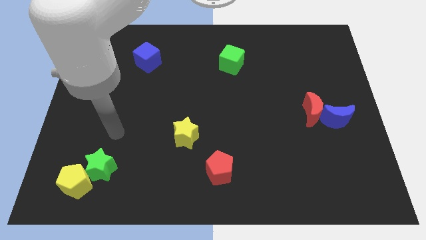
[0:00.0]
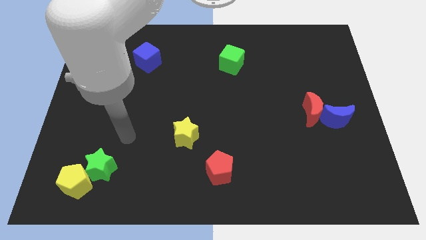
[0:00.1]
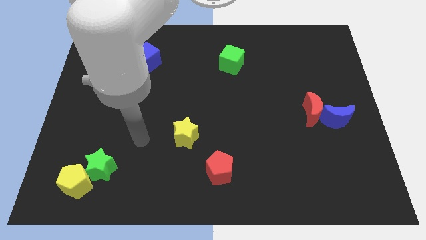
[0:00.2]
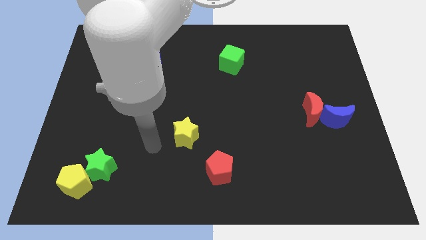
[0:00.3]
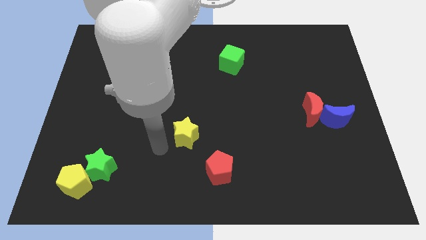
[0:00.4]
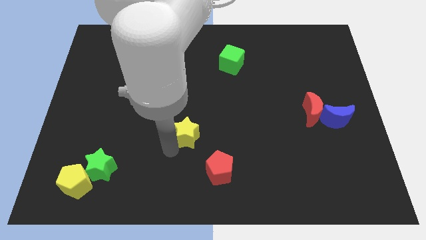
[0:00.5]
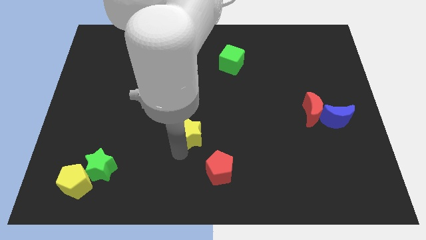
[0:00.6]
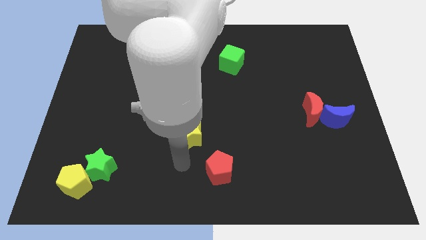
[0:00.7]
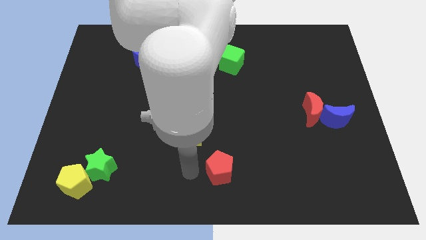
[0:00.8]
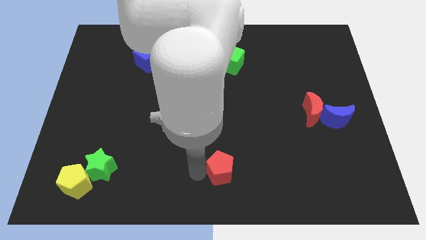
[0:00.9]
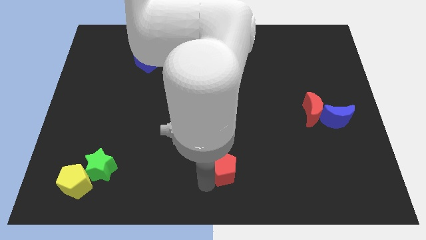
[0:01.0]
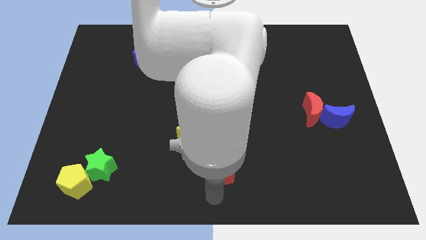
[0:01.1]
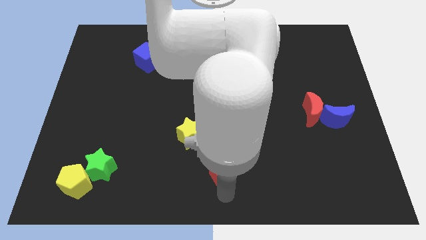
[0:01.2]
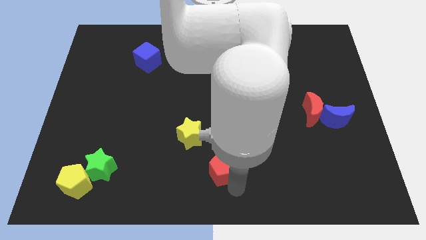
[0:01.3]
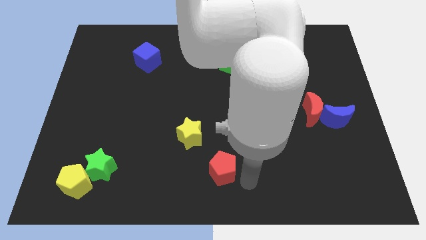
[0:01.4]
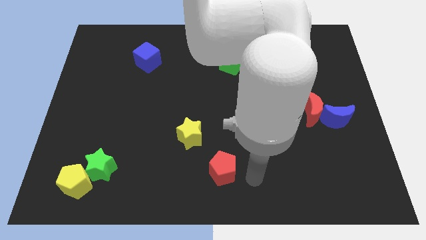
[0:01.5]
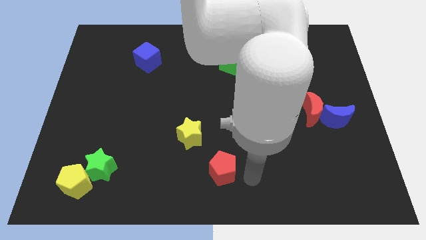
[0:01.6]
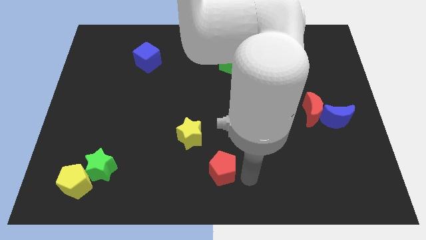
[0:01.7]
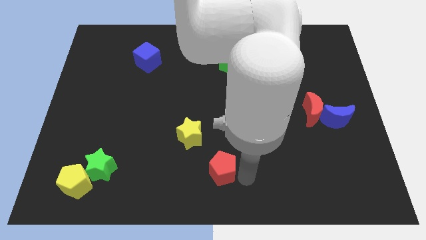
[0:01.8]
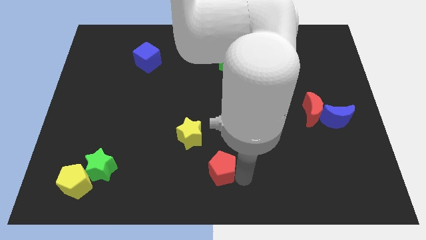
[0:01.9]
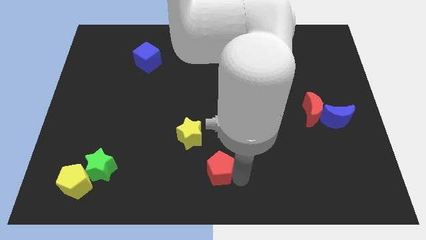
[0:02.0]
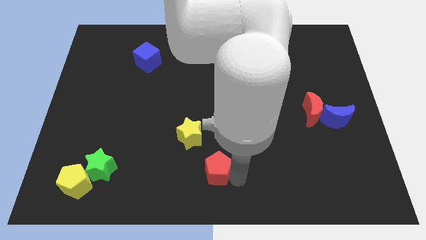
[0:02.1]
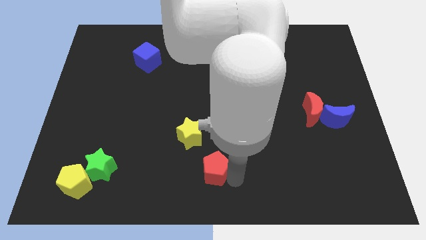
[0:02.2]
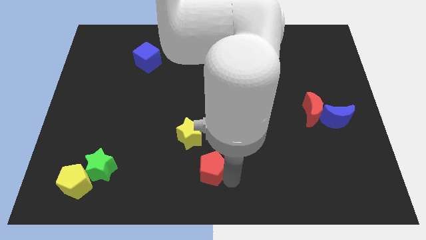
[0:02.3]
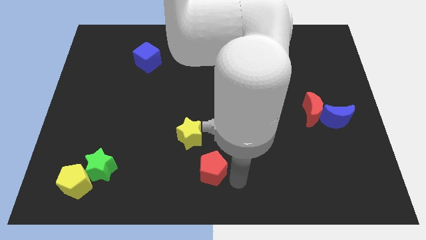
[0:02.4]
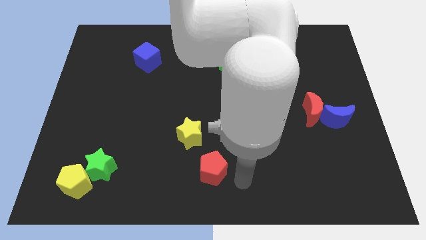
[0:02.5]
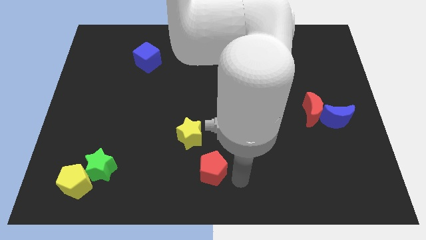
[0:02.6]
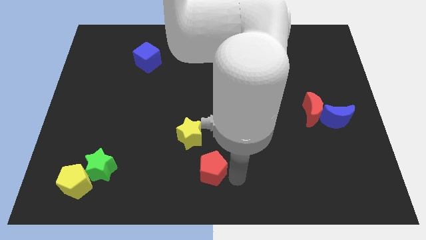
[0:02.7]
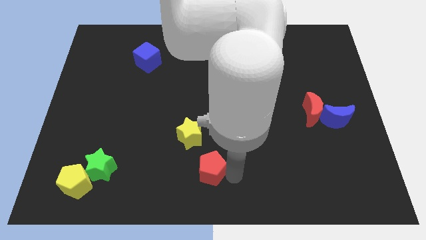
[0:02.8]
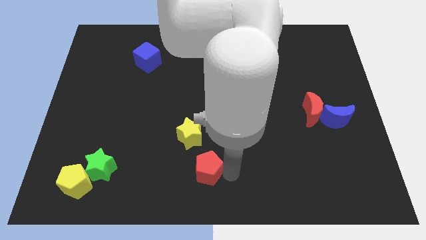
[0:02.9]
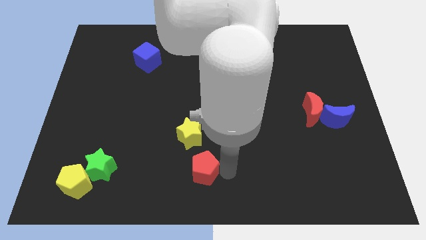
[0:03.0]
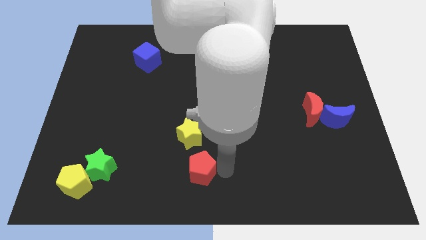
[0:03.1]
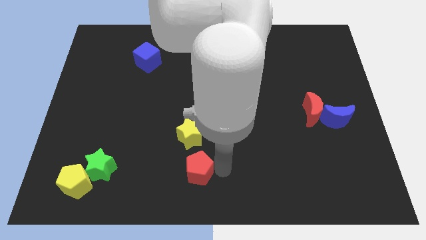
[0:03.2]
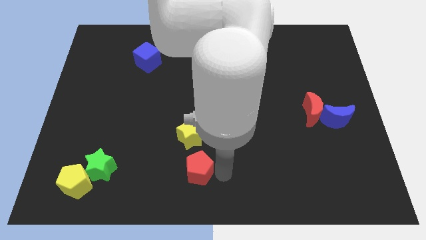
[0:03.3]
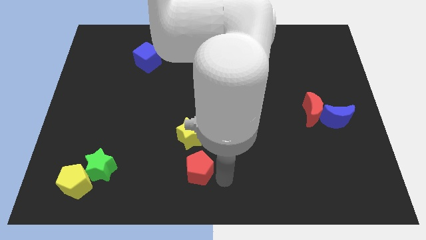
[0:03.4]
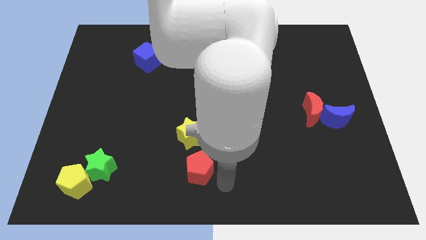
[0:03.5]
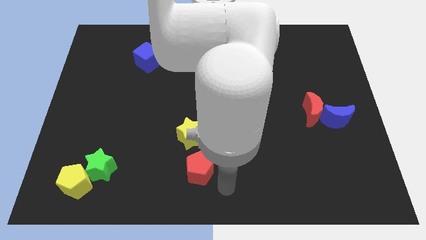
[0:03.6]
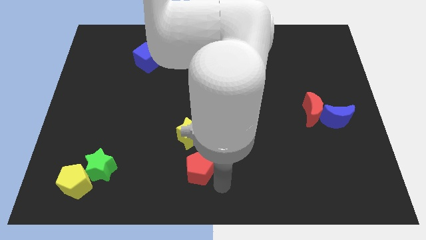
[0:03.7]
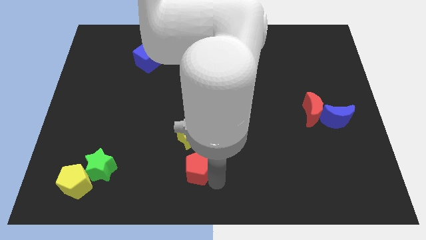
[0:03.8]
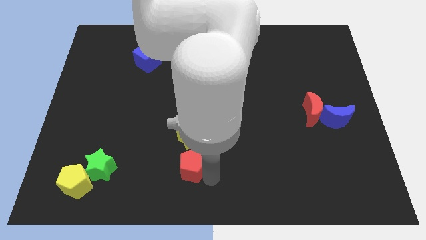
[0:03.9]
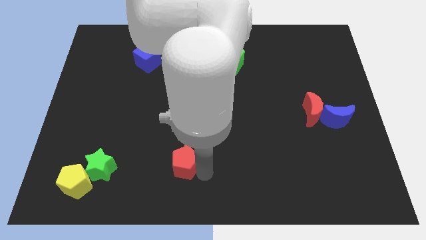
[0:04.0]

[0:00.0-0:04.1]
slightly slide the red pentagon left

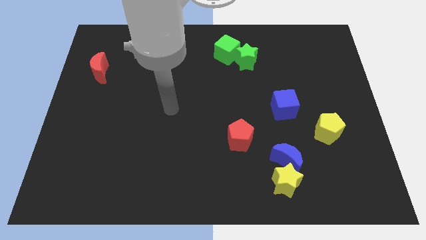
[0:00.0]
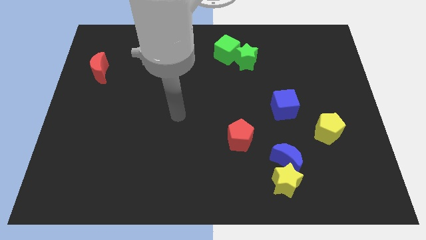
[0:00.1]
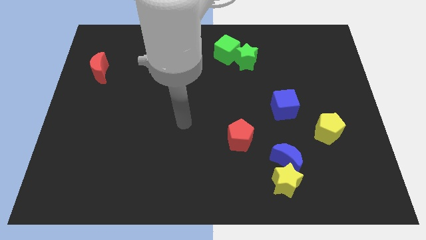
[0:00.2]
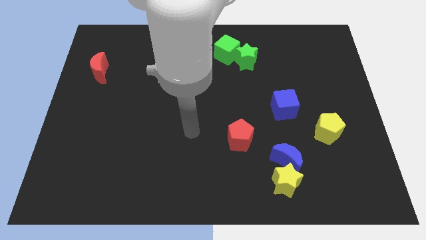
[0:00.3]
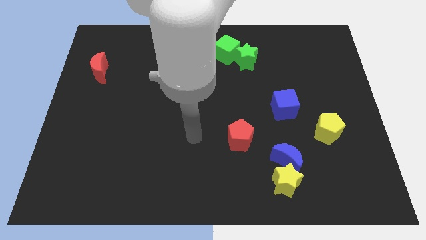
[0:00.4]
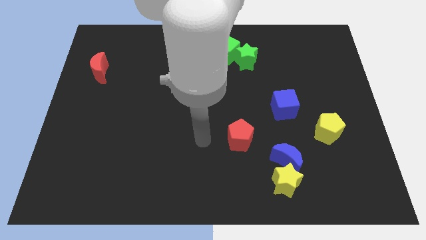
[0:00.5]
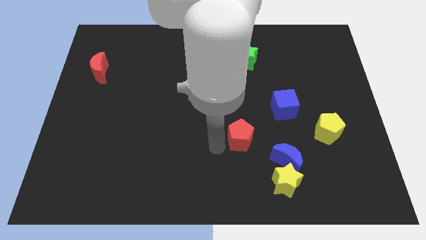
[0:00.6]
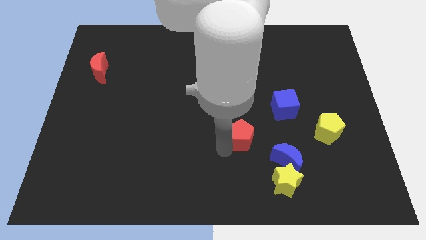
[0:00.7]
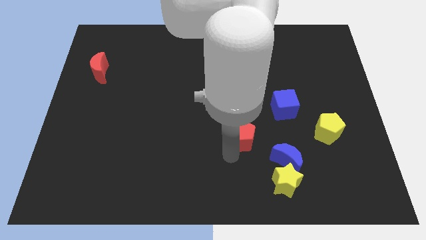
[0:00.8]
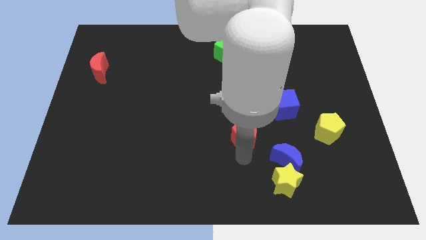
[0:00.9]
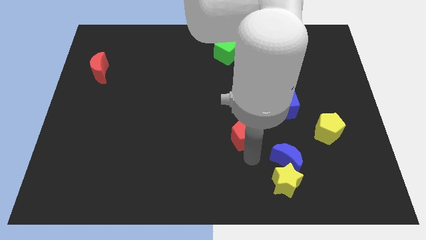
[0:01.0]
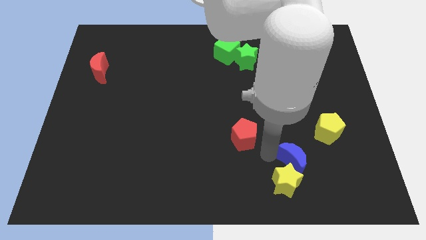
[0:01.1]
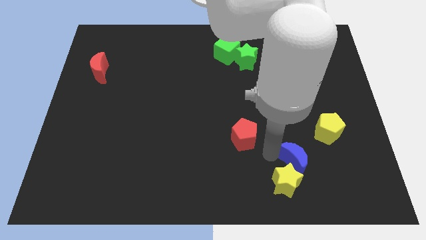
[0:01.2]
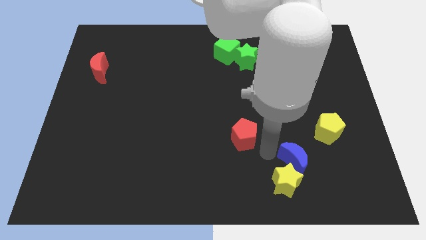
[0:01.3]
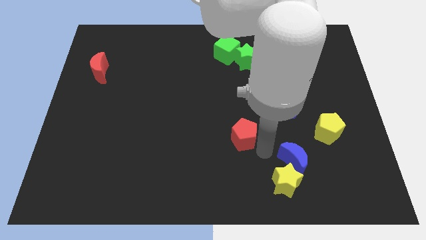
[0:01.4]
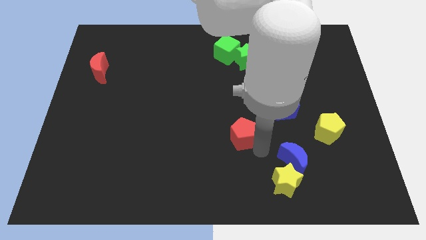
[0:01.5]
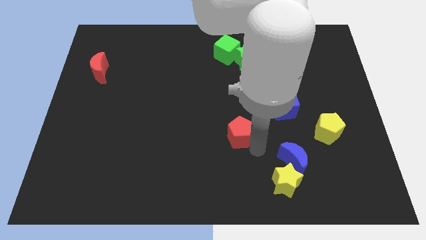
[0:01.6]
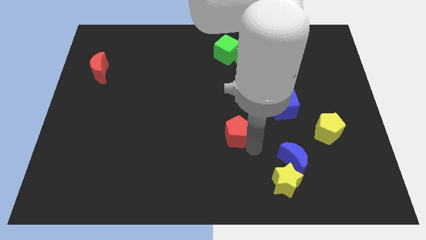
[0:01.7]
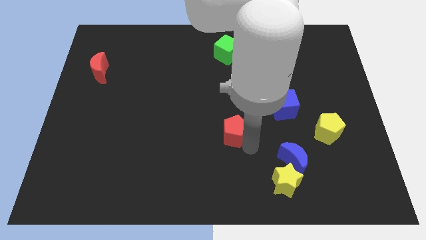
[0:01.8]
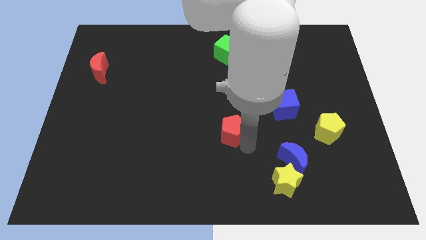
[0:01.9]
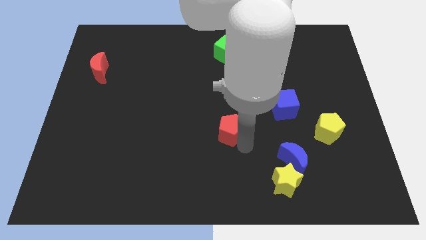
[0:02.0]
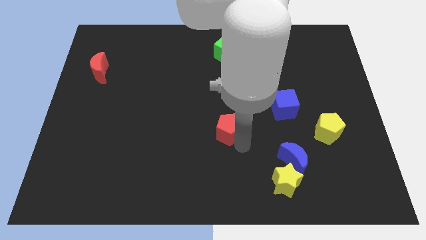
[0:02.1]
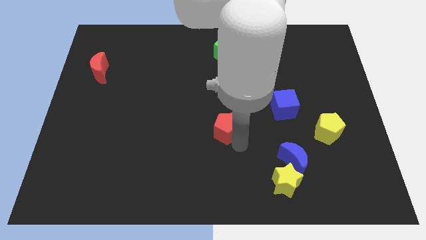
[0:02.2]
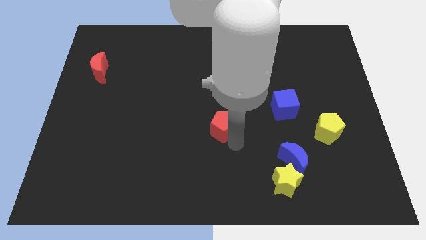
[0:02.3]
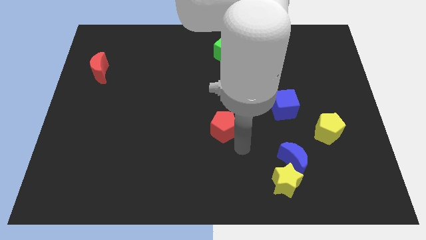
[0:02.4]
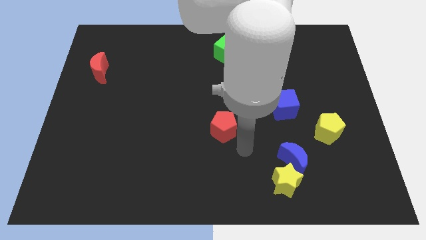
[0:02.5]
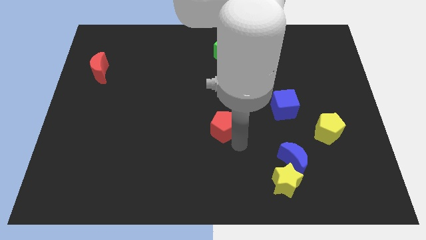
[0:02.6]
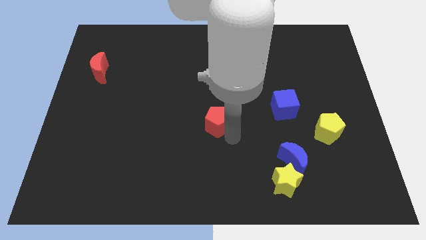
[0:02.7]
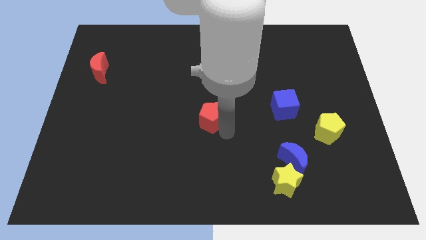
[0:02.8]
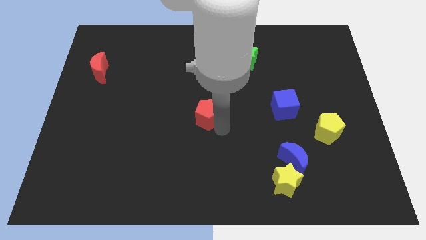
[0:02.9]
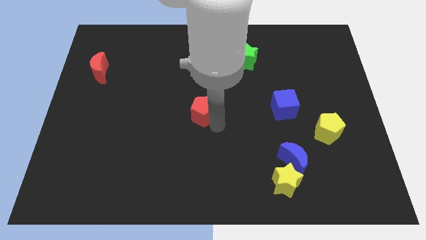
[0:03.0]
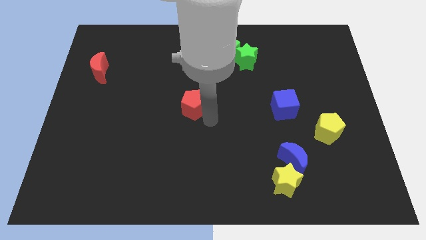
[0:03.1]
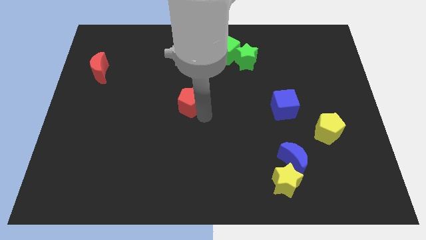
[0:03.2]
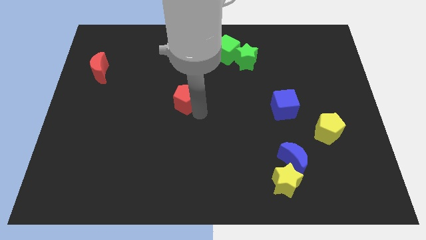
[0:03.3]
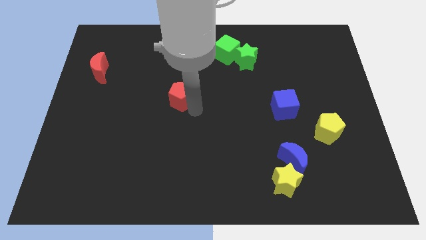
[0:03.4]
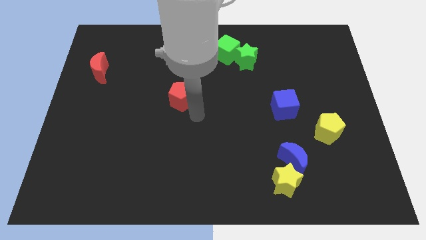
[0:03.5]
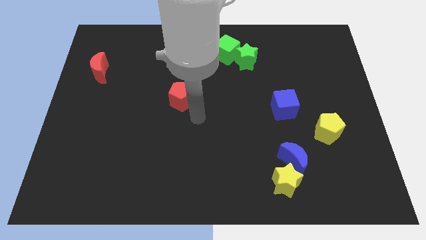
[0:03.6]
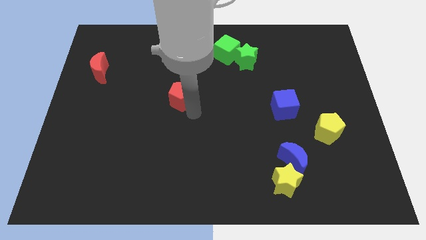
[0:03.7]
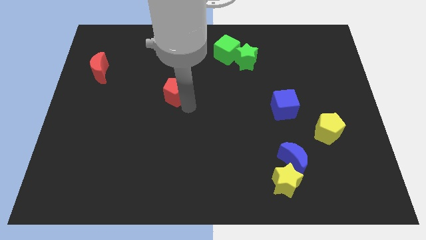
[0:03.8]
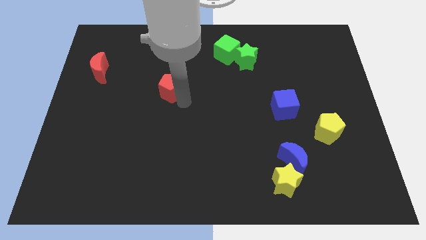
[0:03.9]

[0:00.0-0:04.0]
move the red pentagon diagonally up and left
